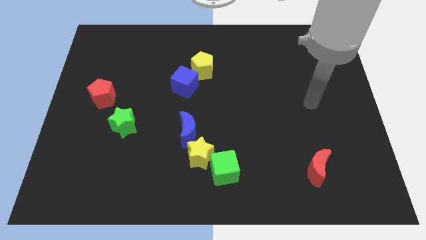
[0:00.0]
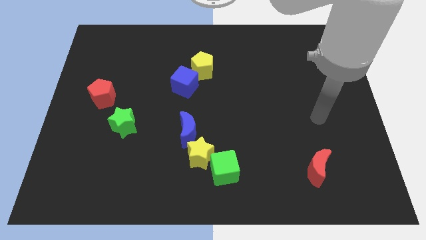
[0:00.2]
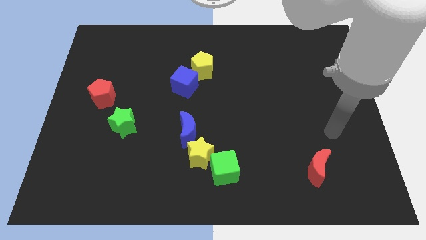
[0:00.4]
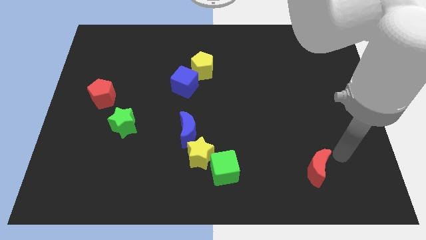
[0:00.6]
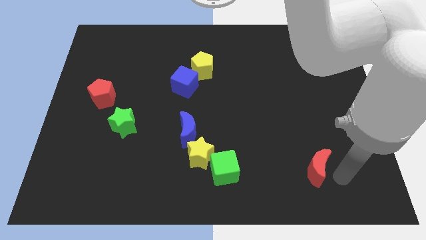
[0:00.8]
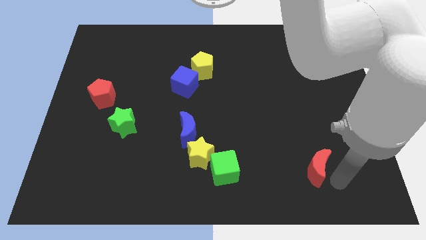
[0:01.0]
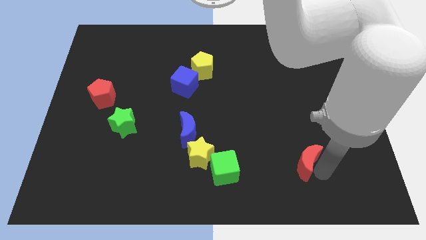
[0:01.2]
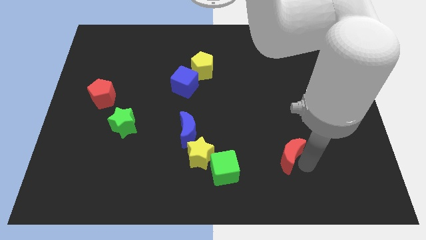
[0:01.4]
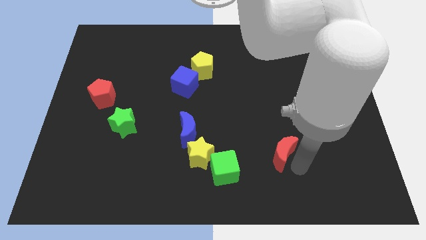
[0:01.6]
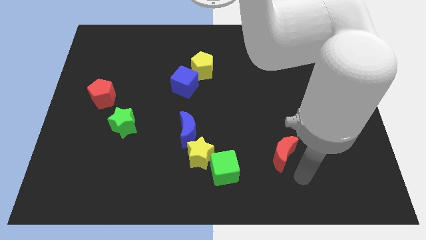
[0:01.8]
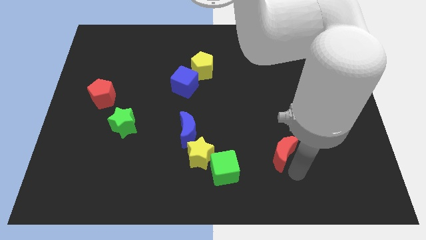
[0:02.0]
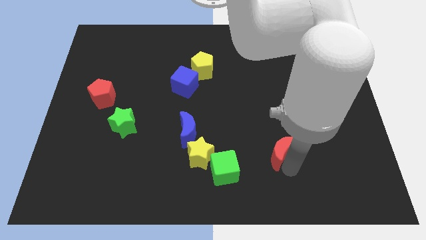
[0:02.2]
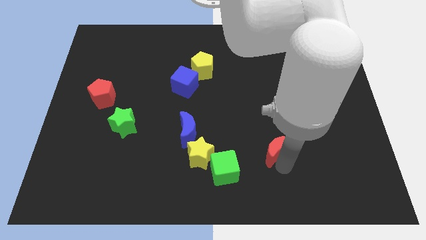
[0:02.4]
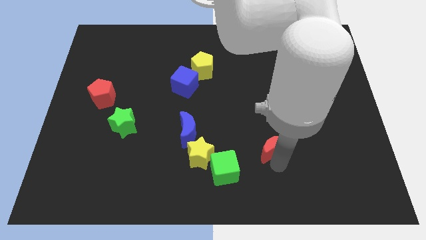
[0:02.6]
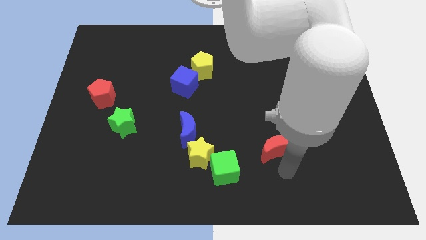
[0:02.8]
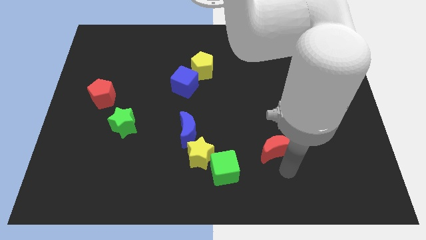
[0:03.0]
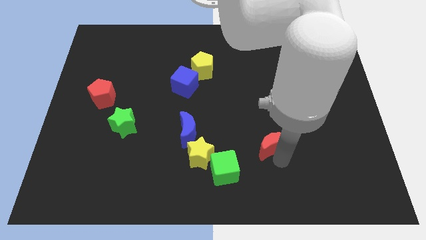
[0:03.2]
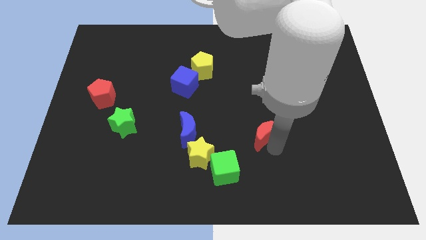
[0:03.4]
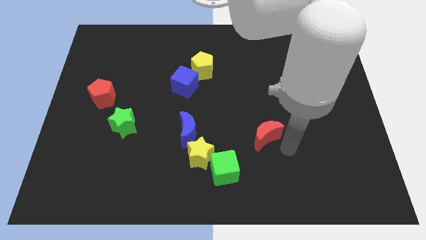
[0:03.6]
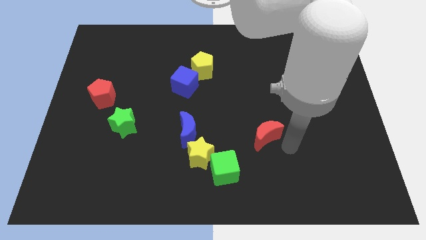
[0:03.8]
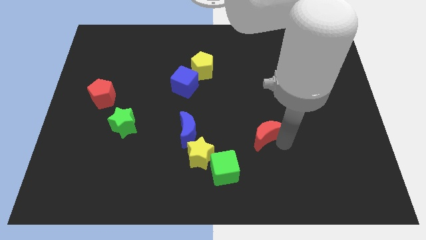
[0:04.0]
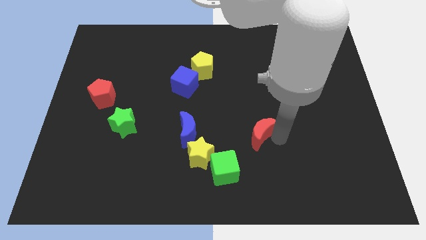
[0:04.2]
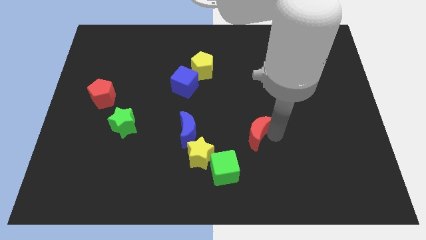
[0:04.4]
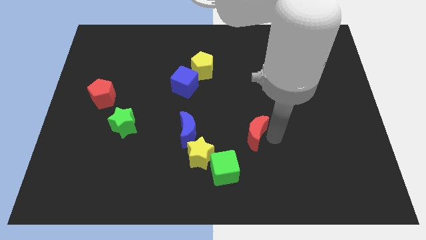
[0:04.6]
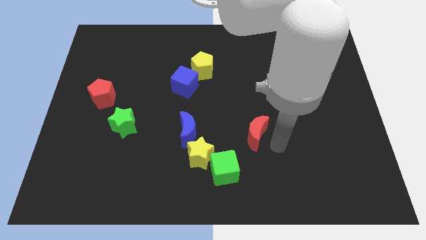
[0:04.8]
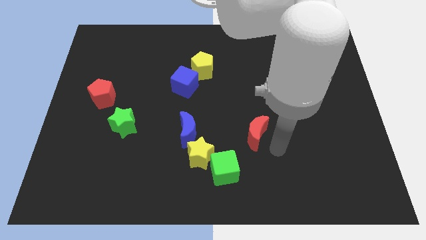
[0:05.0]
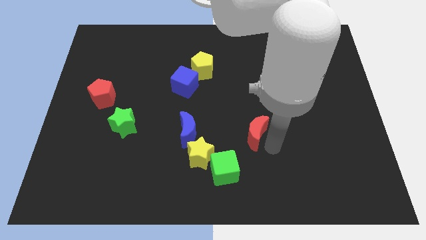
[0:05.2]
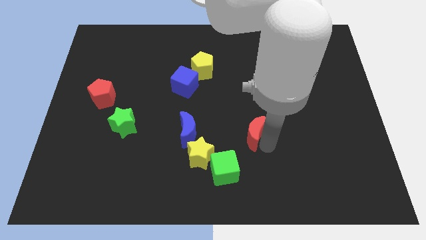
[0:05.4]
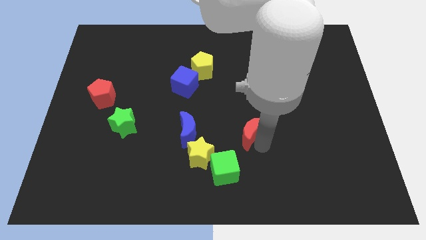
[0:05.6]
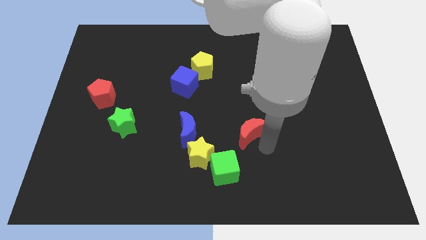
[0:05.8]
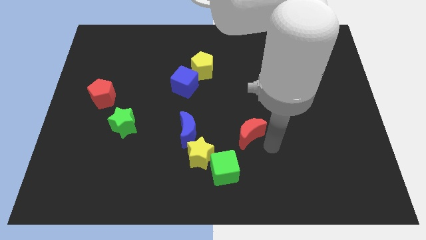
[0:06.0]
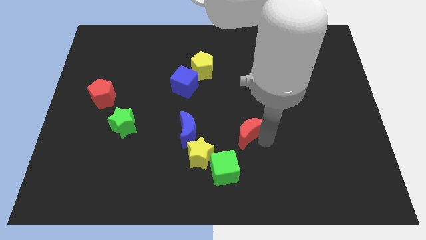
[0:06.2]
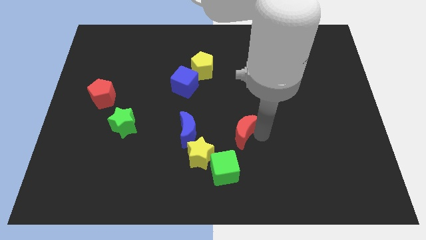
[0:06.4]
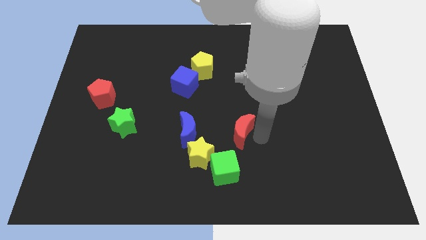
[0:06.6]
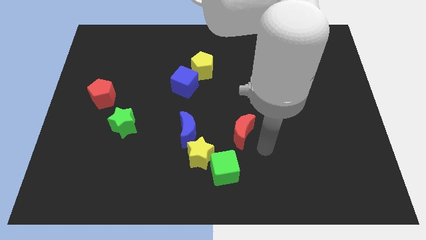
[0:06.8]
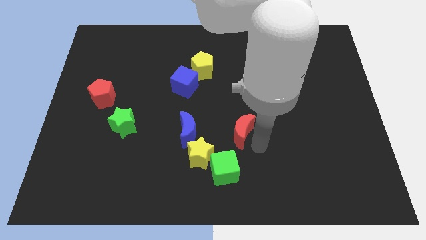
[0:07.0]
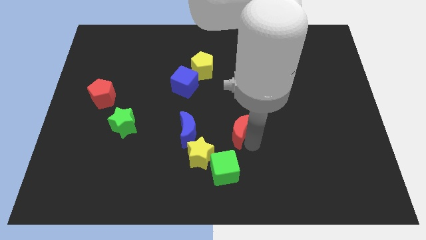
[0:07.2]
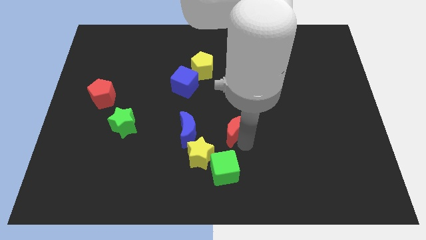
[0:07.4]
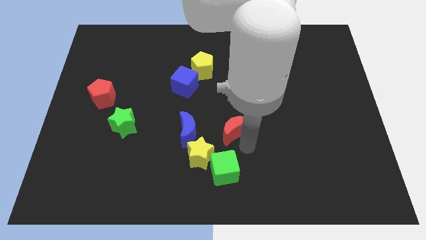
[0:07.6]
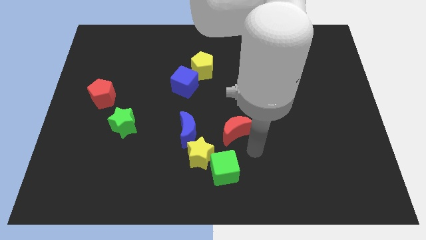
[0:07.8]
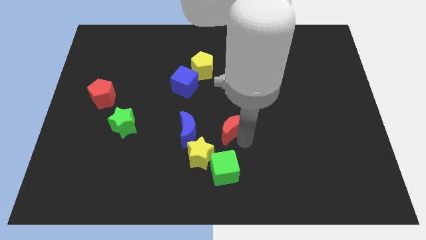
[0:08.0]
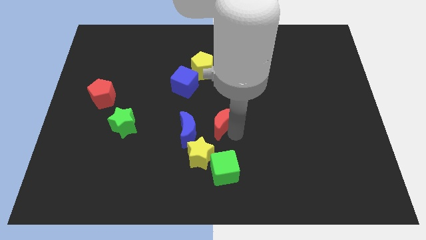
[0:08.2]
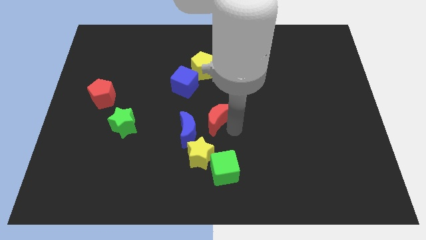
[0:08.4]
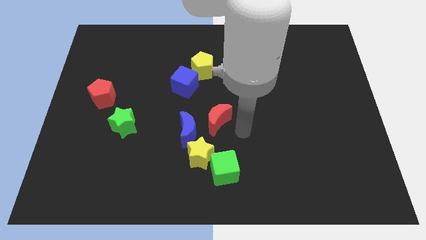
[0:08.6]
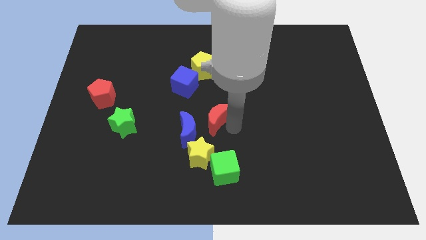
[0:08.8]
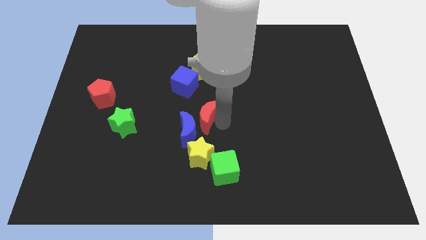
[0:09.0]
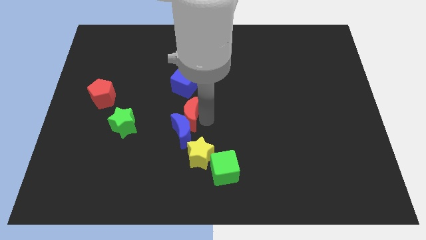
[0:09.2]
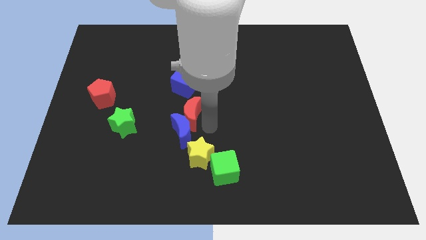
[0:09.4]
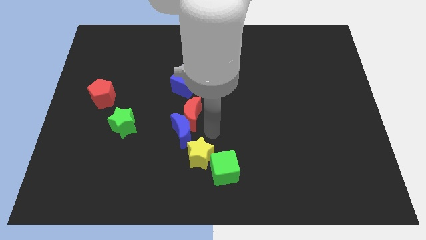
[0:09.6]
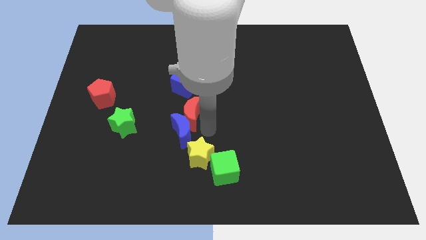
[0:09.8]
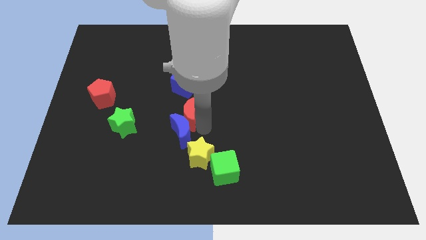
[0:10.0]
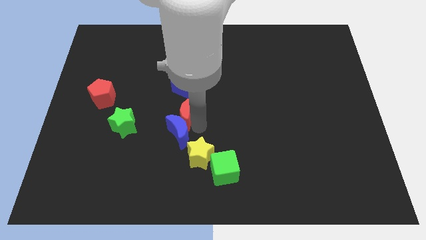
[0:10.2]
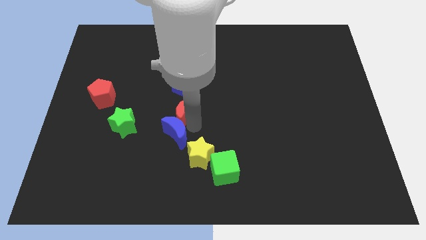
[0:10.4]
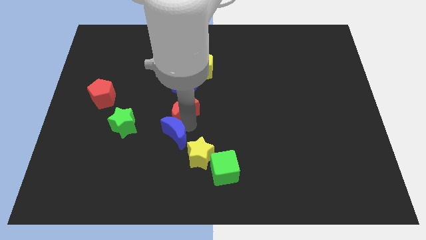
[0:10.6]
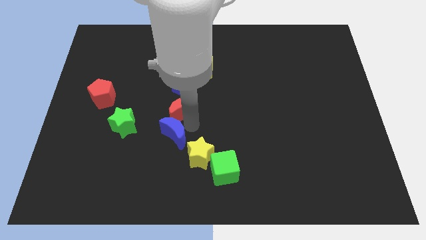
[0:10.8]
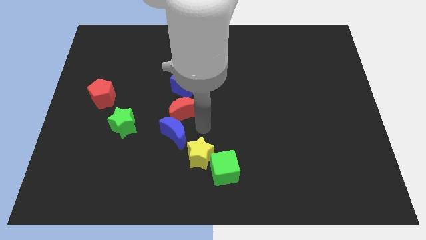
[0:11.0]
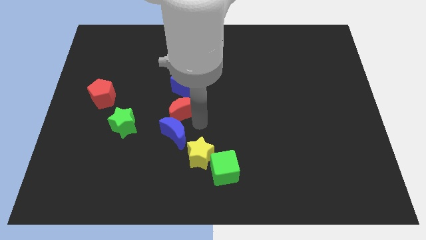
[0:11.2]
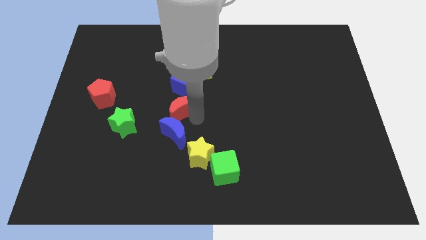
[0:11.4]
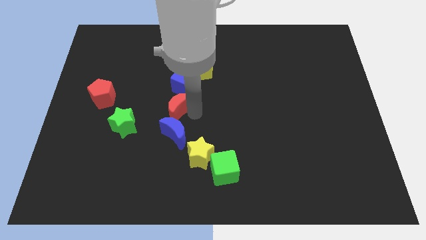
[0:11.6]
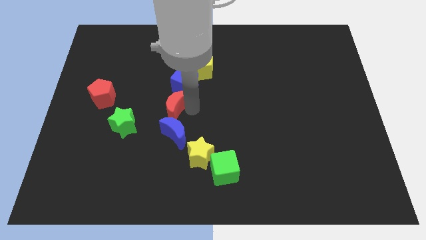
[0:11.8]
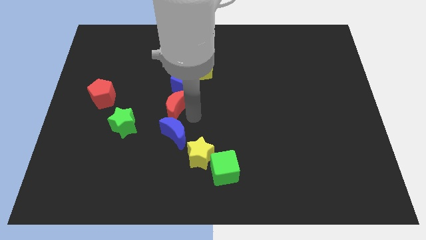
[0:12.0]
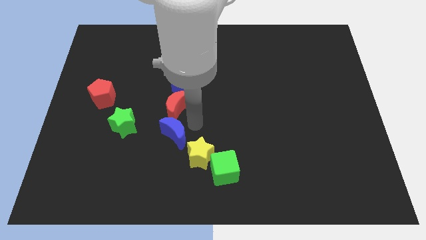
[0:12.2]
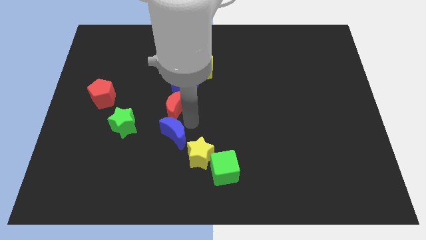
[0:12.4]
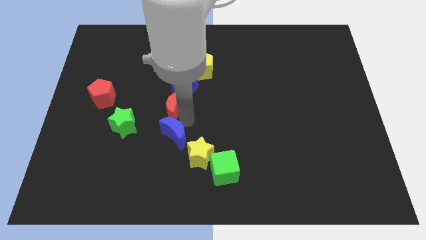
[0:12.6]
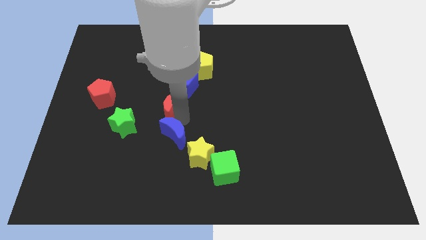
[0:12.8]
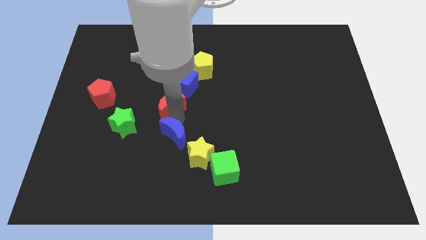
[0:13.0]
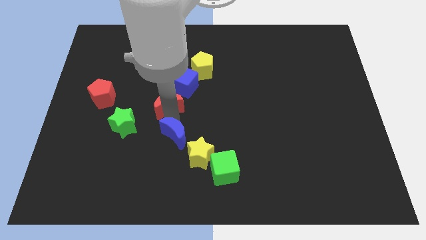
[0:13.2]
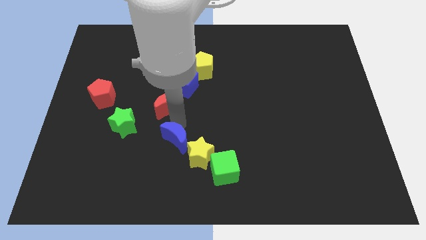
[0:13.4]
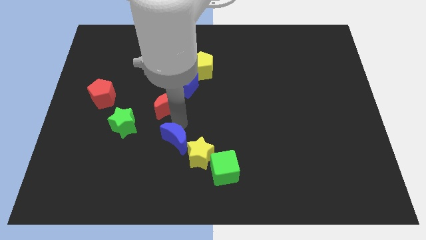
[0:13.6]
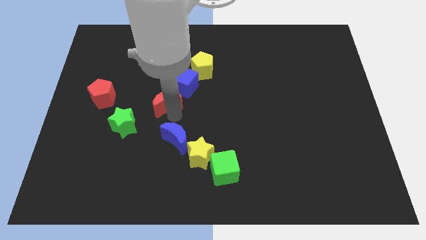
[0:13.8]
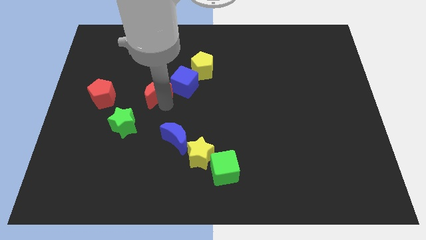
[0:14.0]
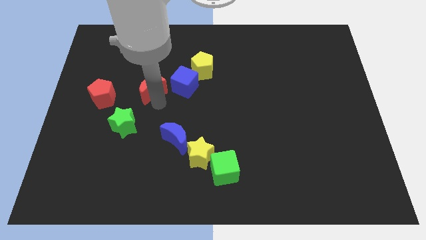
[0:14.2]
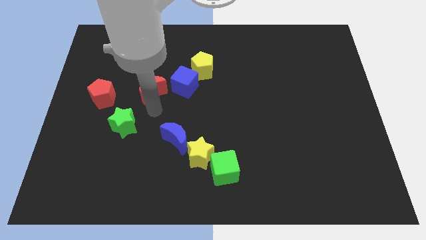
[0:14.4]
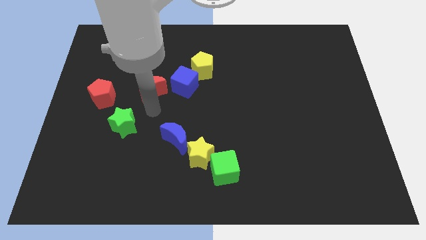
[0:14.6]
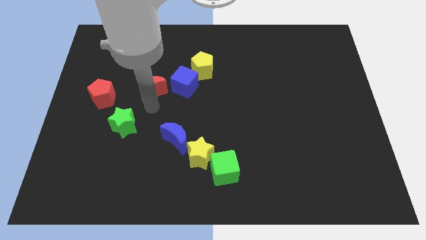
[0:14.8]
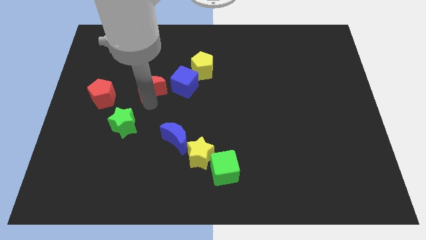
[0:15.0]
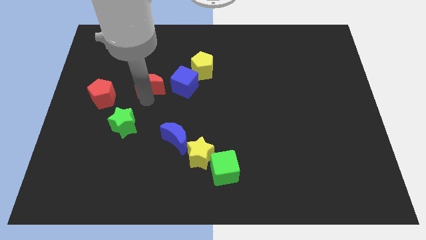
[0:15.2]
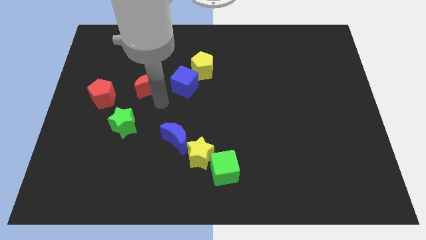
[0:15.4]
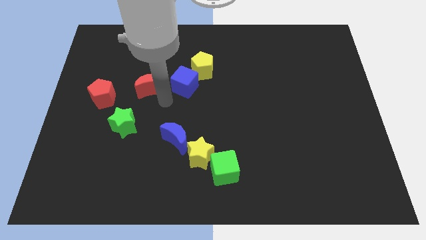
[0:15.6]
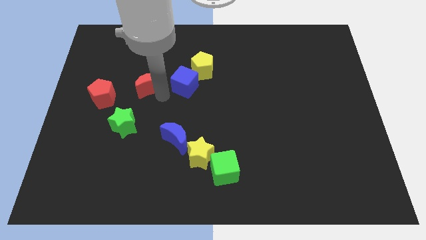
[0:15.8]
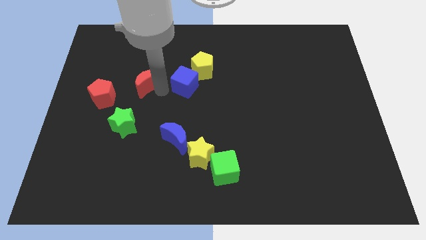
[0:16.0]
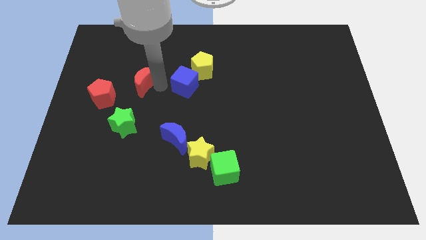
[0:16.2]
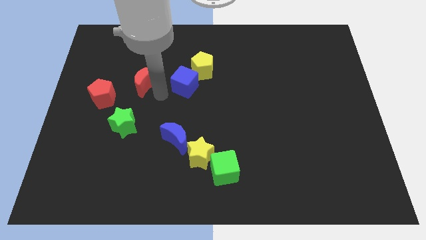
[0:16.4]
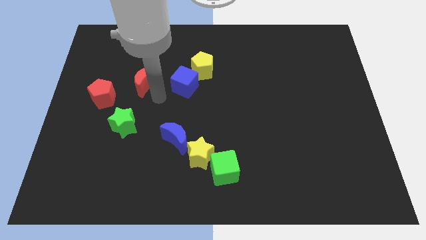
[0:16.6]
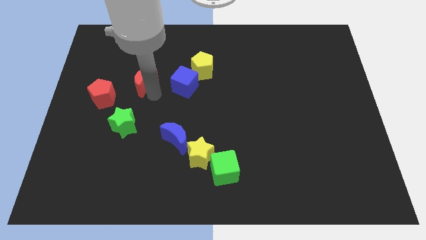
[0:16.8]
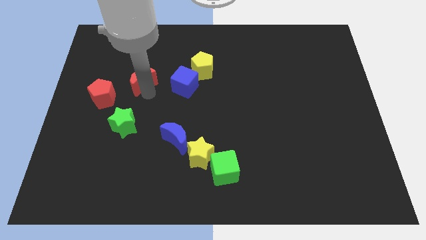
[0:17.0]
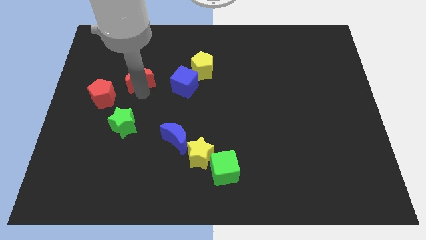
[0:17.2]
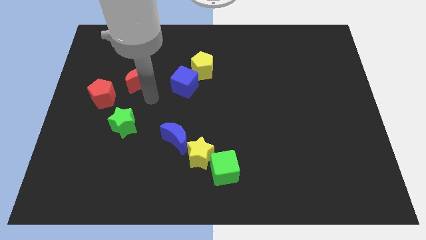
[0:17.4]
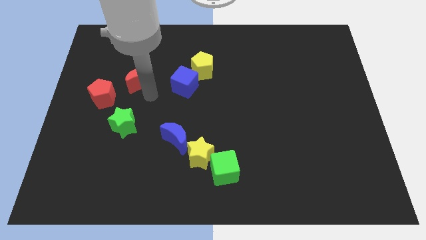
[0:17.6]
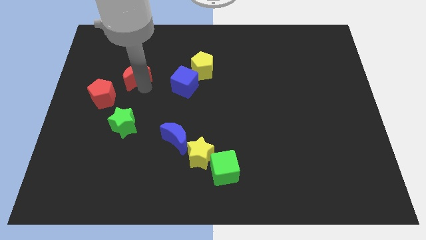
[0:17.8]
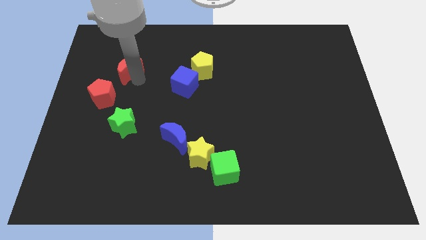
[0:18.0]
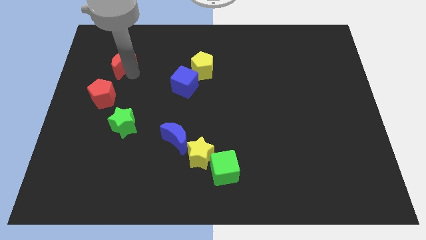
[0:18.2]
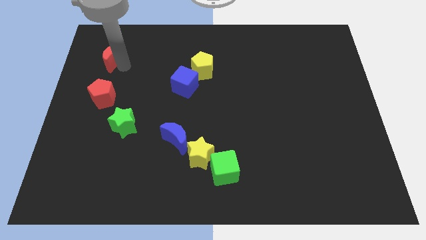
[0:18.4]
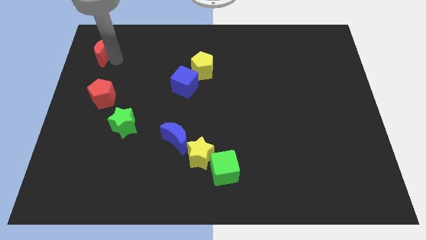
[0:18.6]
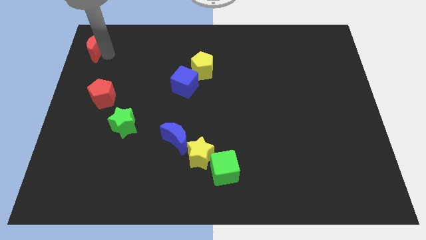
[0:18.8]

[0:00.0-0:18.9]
slide the red moon to the top left of the board
